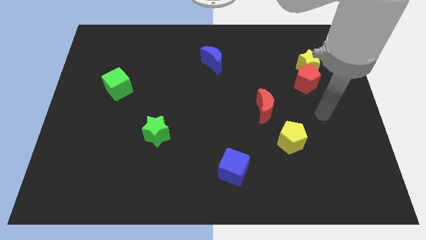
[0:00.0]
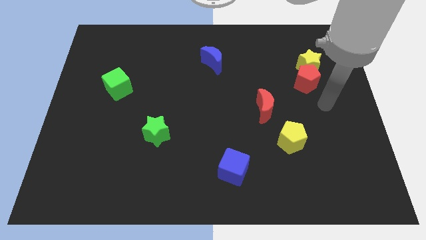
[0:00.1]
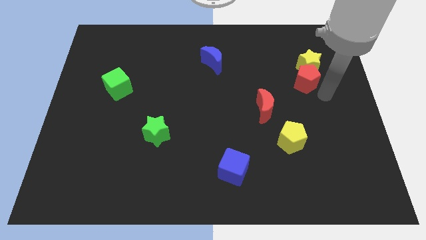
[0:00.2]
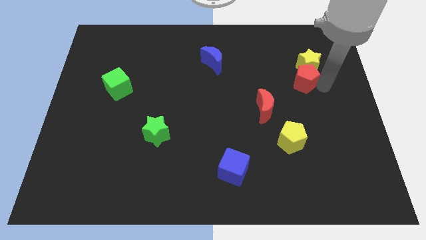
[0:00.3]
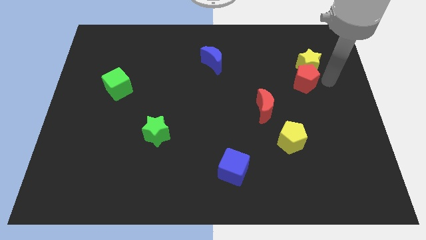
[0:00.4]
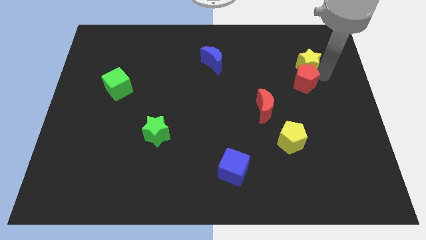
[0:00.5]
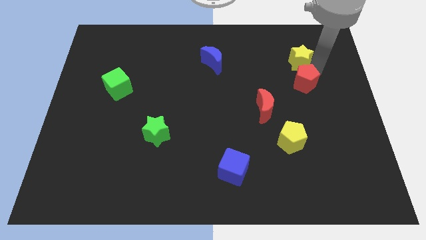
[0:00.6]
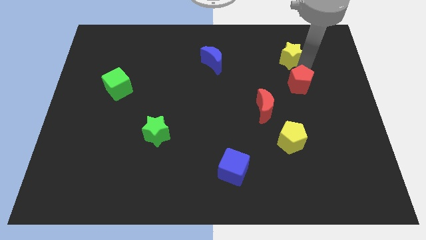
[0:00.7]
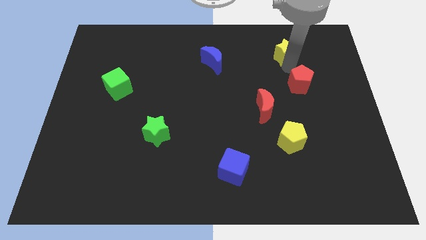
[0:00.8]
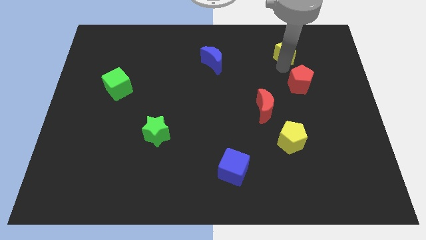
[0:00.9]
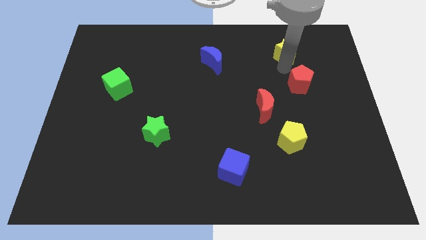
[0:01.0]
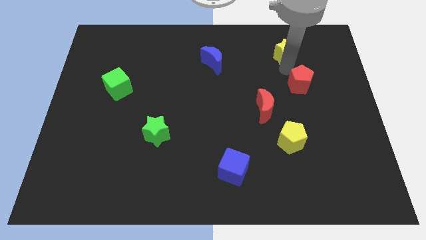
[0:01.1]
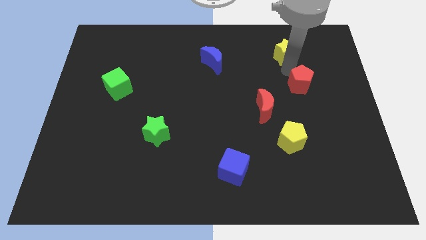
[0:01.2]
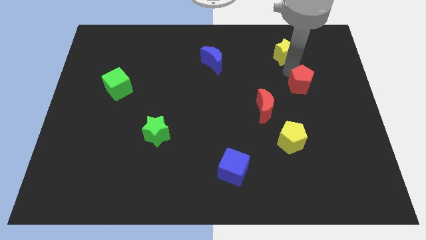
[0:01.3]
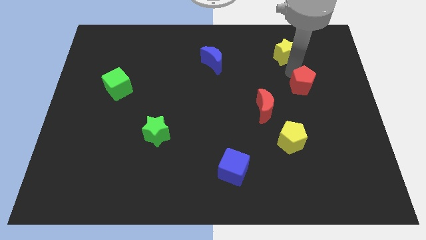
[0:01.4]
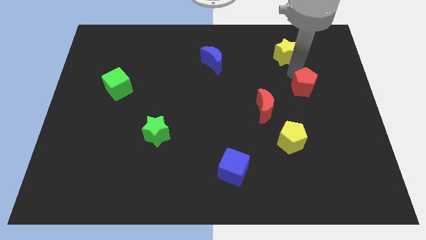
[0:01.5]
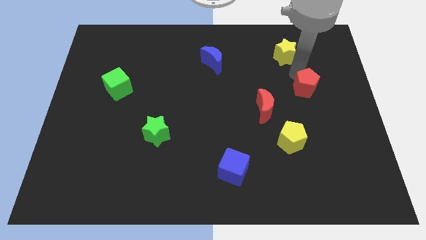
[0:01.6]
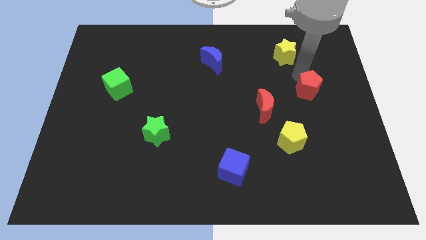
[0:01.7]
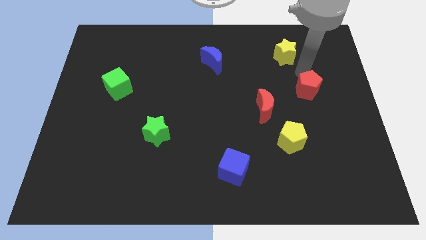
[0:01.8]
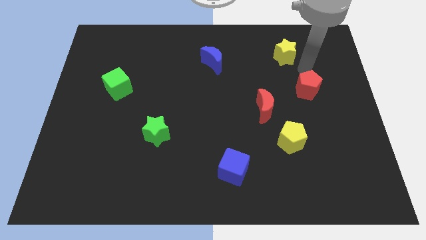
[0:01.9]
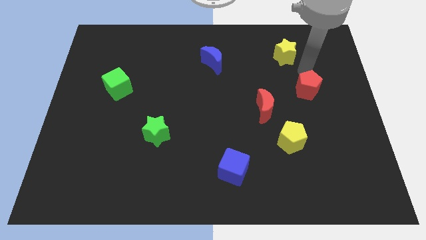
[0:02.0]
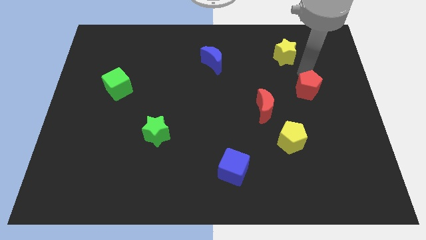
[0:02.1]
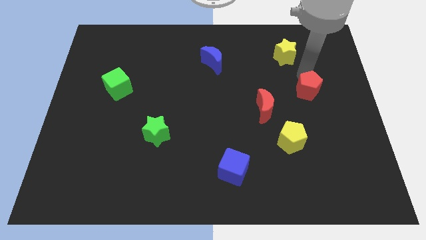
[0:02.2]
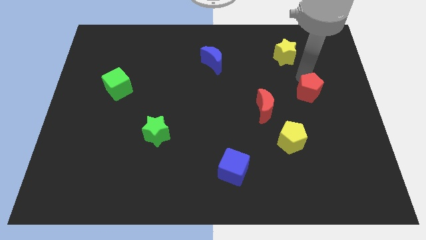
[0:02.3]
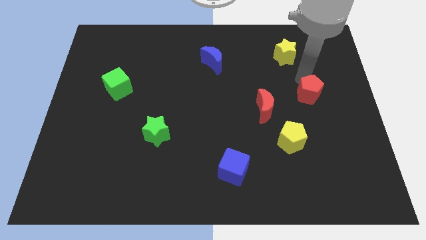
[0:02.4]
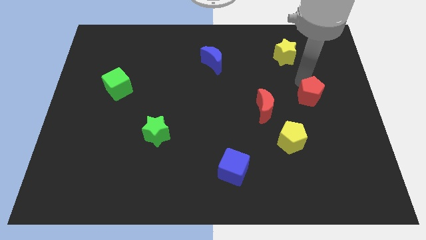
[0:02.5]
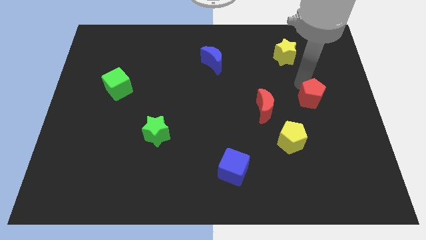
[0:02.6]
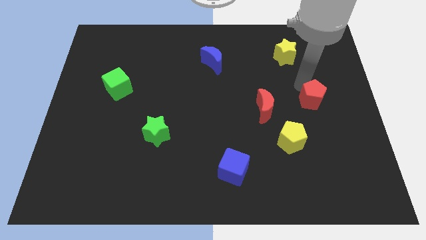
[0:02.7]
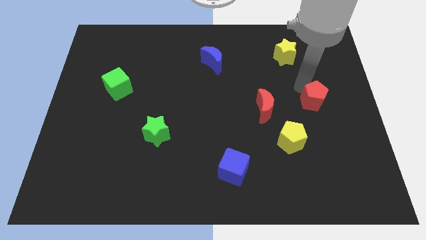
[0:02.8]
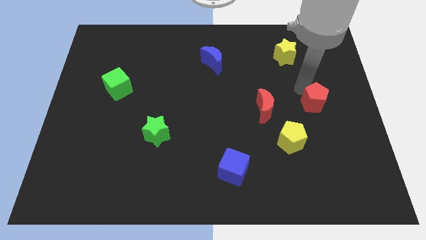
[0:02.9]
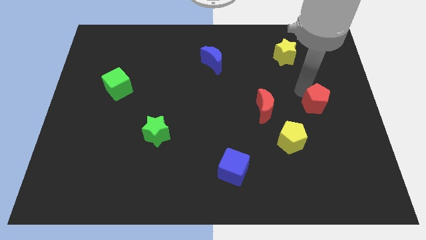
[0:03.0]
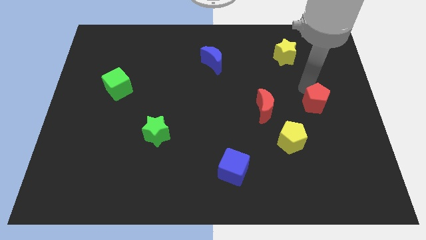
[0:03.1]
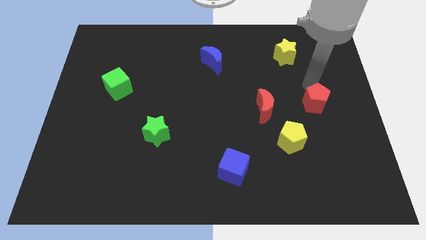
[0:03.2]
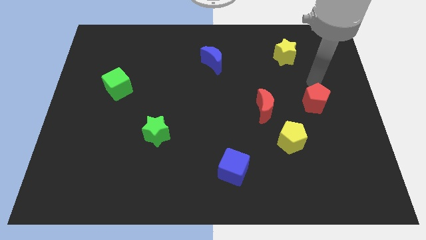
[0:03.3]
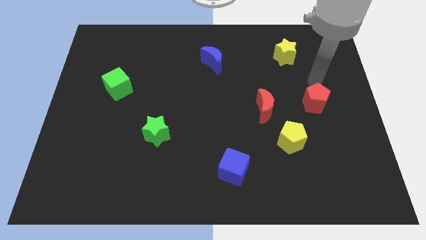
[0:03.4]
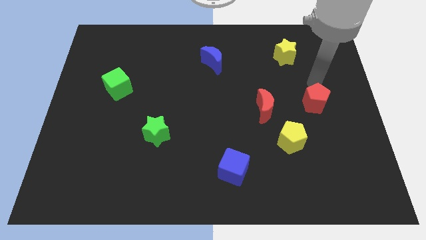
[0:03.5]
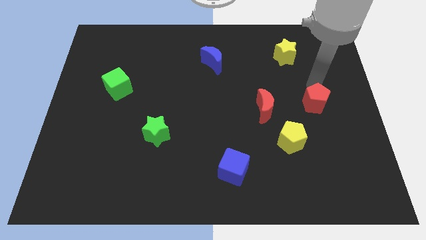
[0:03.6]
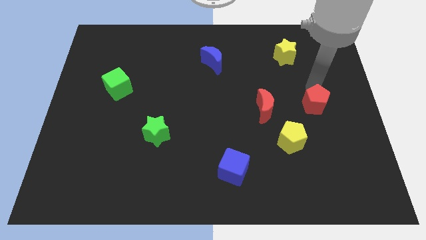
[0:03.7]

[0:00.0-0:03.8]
move the red pentagon slightly down

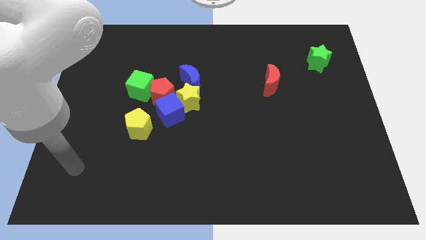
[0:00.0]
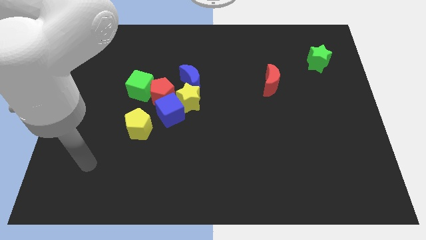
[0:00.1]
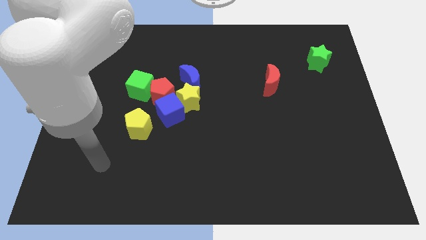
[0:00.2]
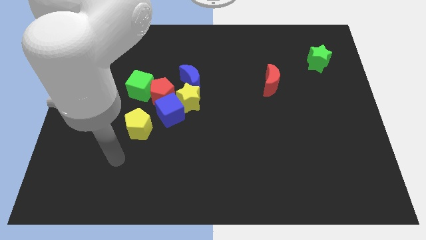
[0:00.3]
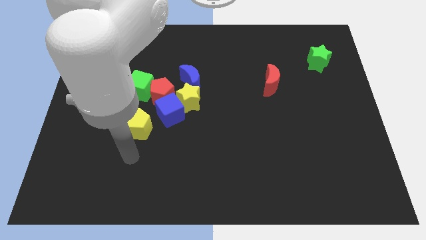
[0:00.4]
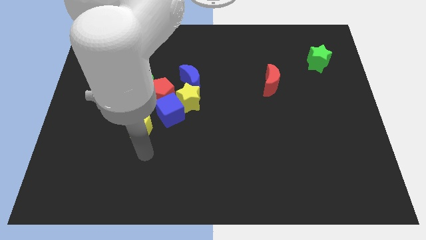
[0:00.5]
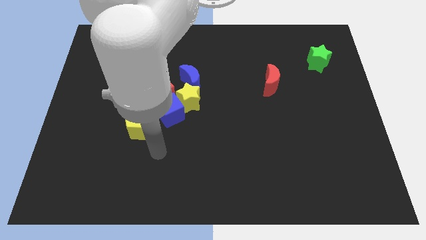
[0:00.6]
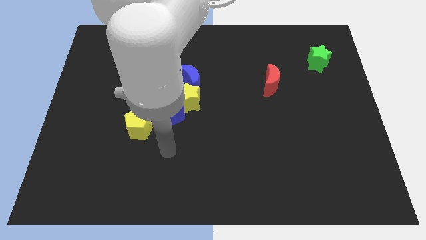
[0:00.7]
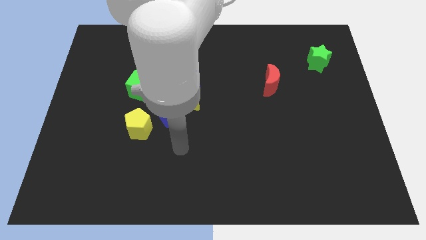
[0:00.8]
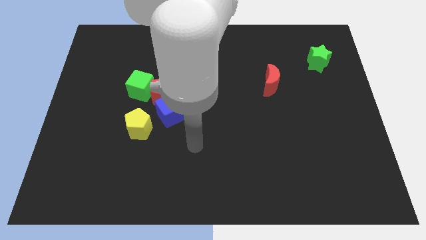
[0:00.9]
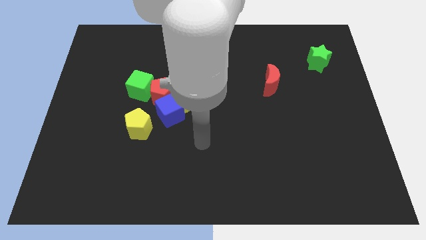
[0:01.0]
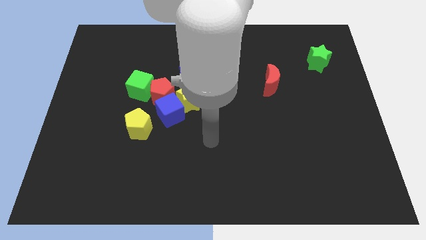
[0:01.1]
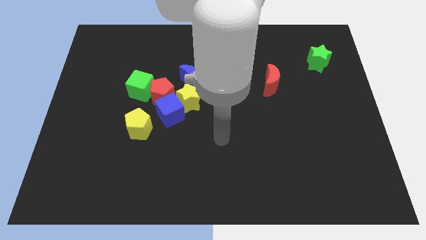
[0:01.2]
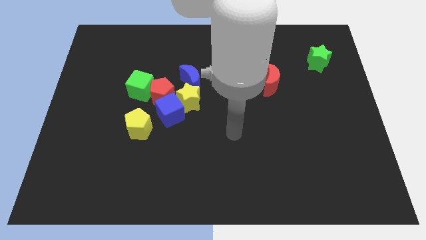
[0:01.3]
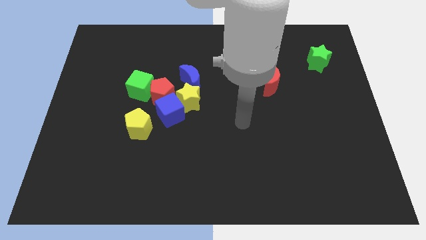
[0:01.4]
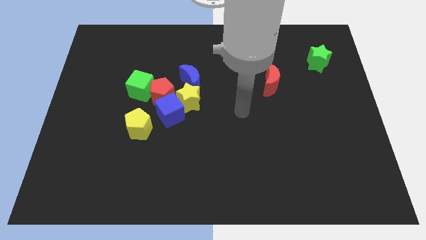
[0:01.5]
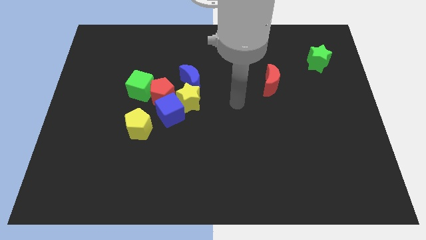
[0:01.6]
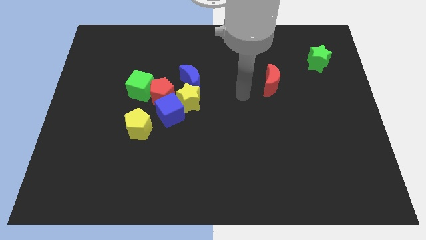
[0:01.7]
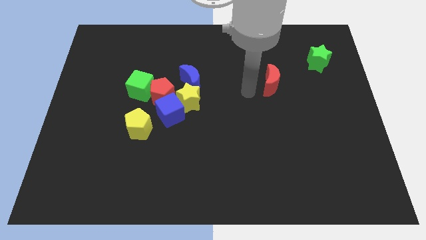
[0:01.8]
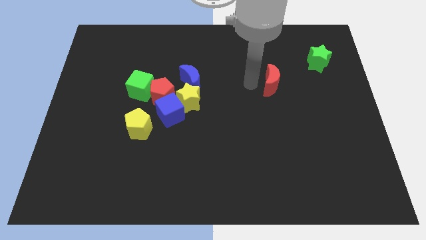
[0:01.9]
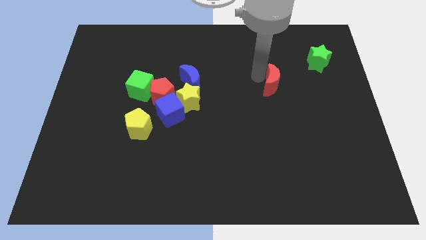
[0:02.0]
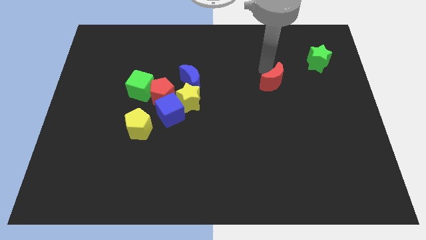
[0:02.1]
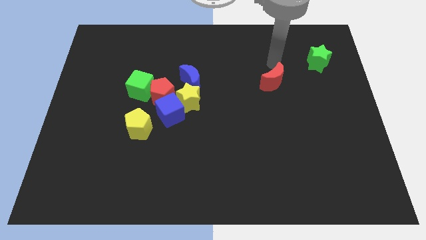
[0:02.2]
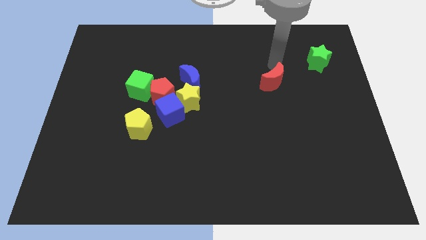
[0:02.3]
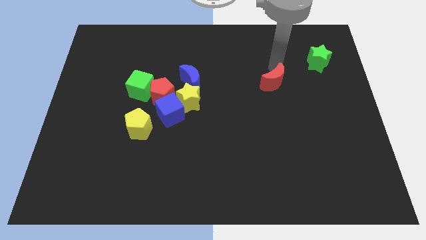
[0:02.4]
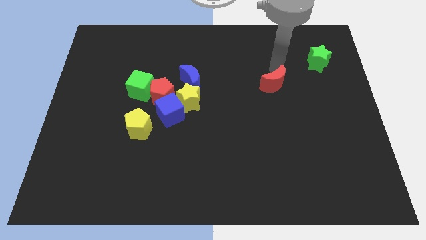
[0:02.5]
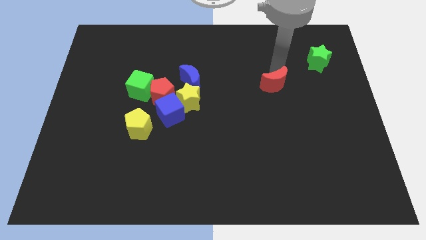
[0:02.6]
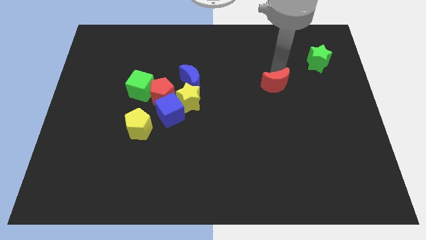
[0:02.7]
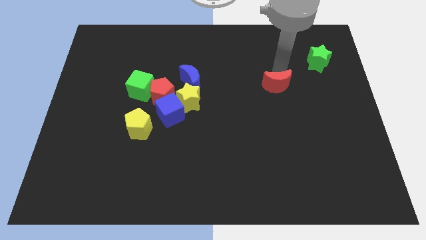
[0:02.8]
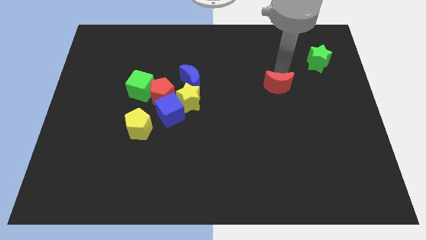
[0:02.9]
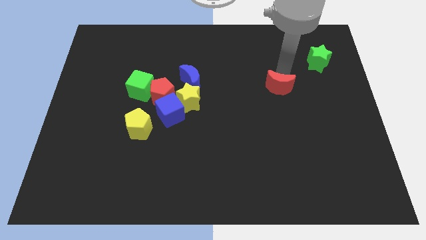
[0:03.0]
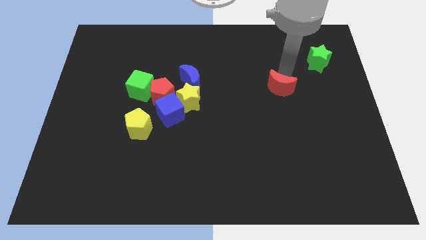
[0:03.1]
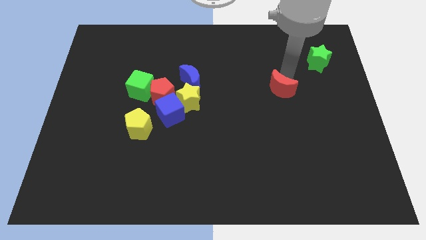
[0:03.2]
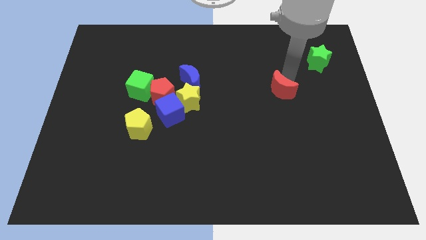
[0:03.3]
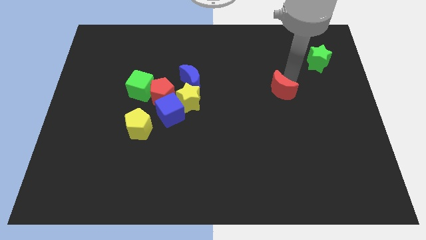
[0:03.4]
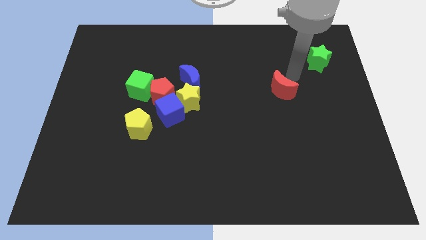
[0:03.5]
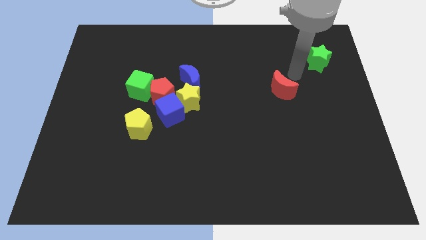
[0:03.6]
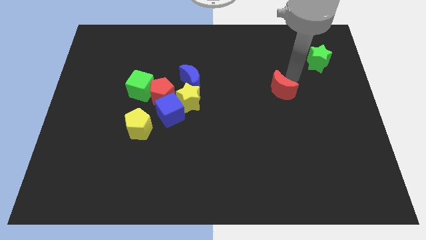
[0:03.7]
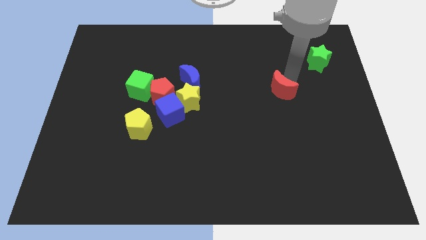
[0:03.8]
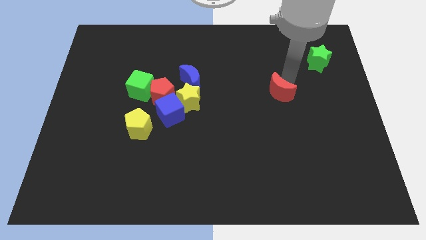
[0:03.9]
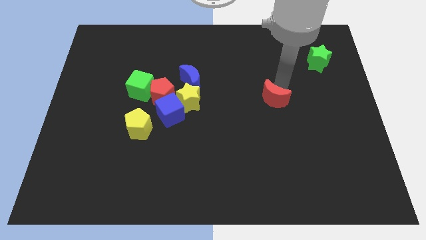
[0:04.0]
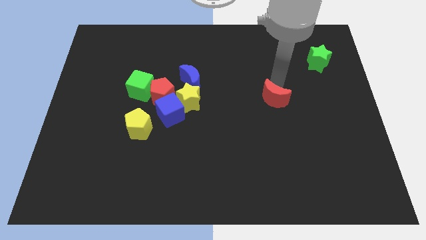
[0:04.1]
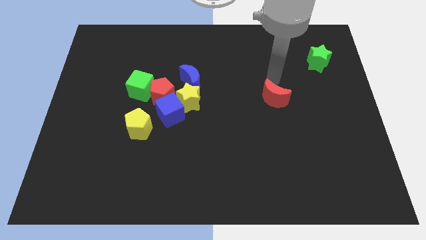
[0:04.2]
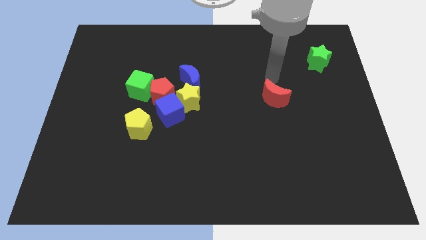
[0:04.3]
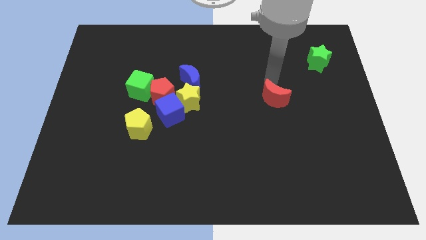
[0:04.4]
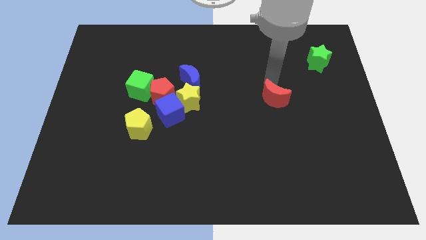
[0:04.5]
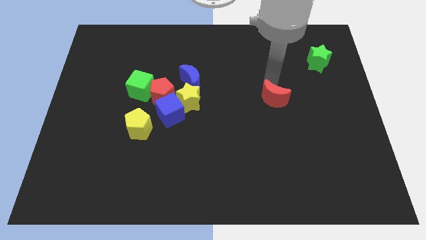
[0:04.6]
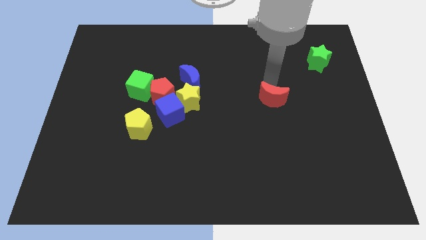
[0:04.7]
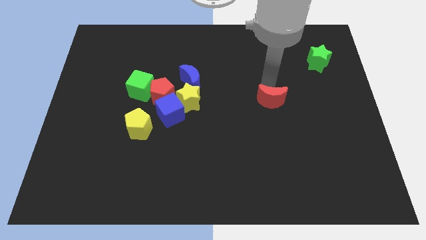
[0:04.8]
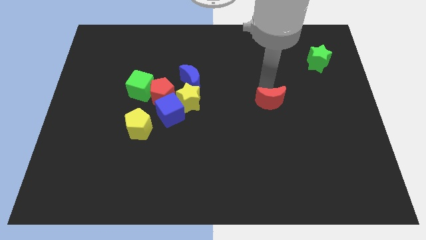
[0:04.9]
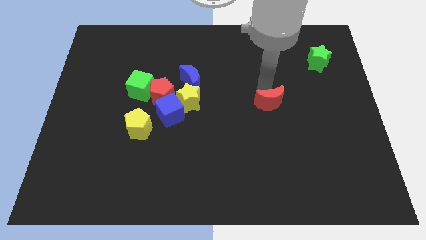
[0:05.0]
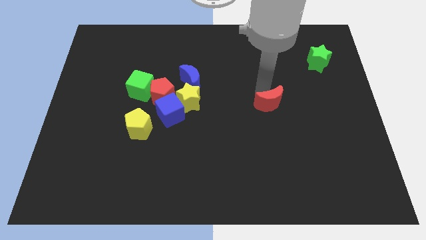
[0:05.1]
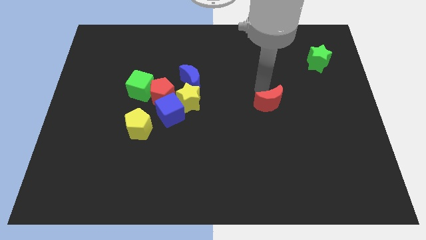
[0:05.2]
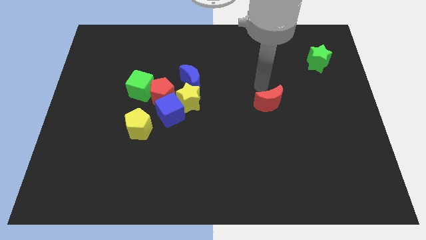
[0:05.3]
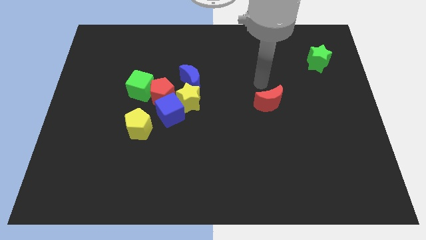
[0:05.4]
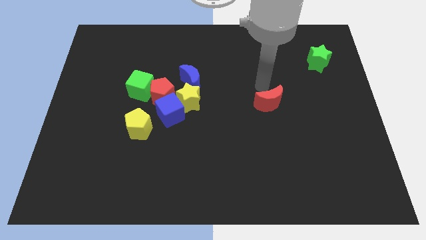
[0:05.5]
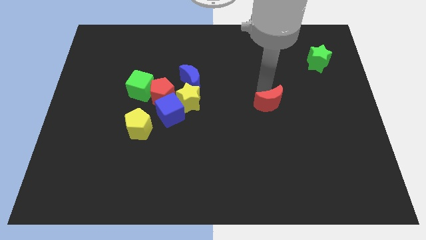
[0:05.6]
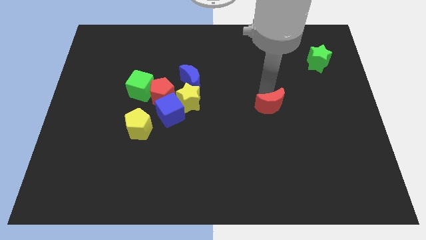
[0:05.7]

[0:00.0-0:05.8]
slightly move the red moon downwards
